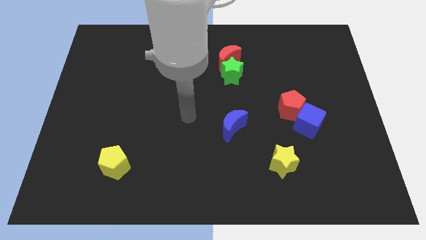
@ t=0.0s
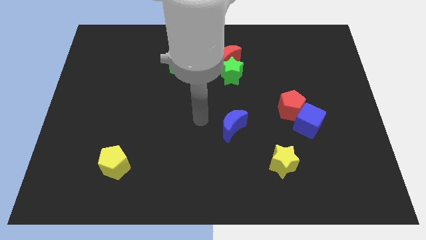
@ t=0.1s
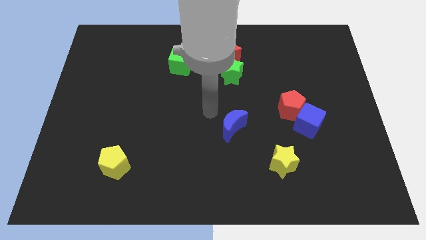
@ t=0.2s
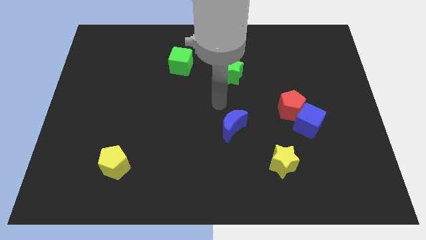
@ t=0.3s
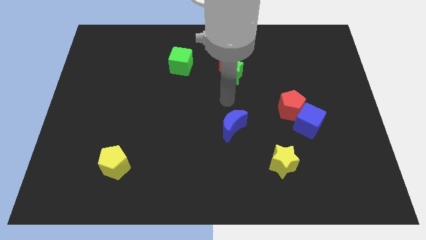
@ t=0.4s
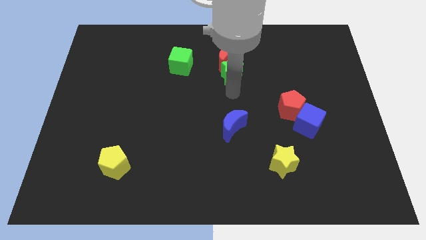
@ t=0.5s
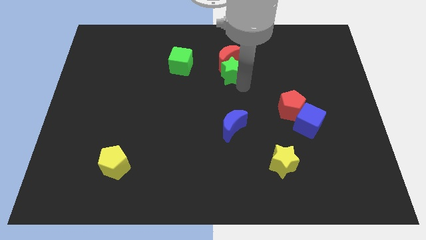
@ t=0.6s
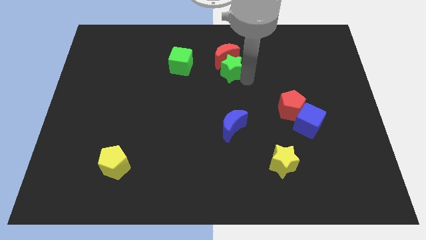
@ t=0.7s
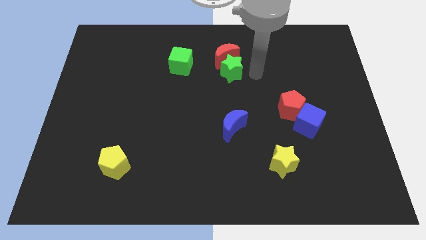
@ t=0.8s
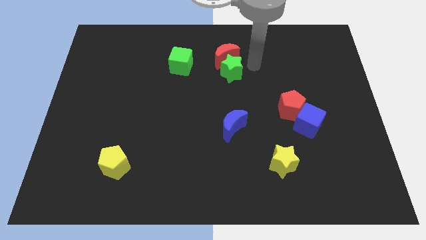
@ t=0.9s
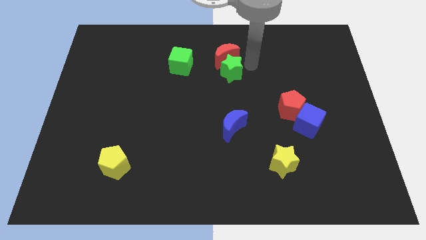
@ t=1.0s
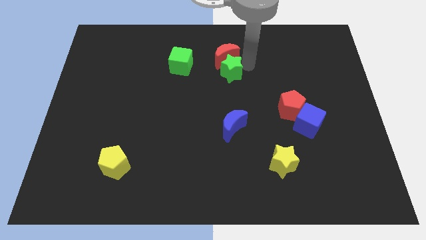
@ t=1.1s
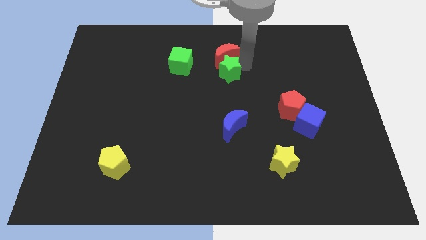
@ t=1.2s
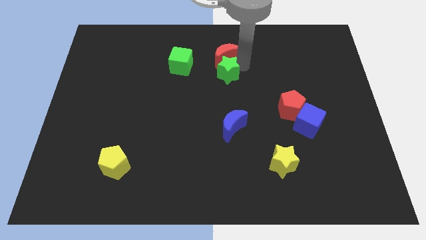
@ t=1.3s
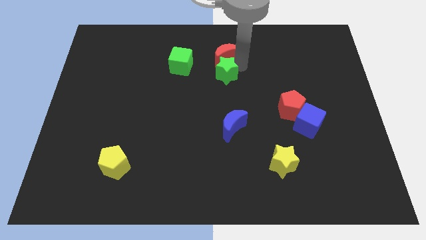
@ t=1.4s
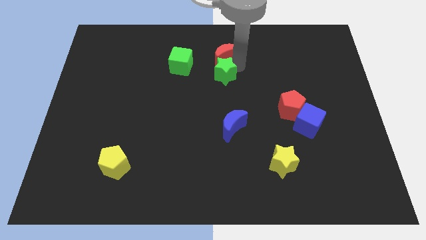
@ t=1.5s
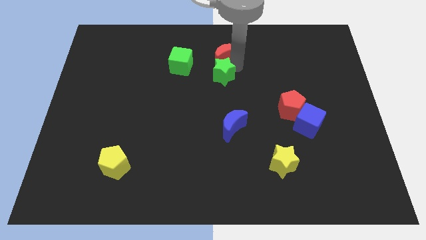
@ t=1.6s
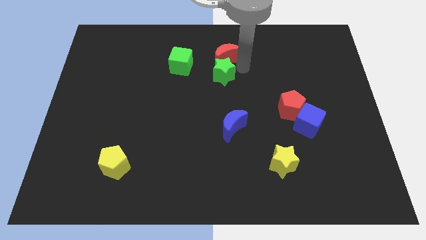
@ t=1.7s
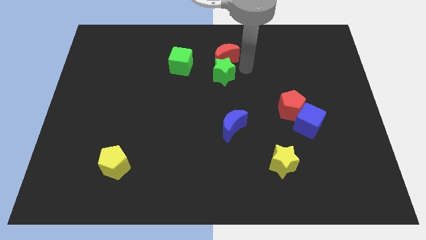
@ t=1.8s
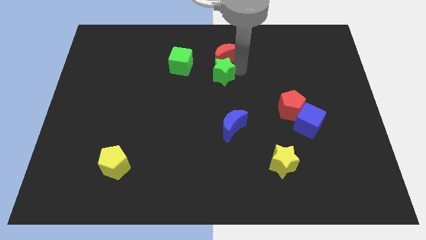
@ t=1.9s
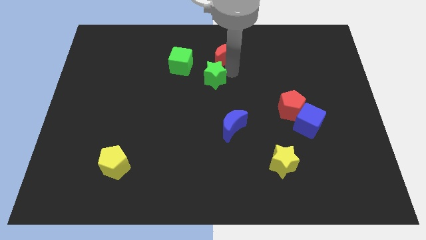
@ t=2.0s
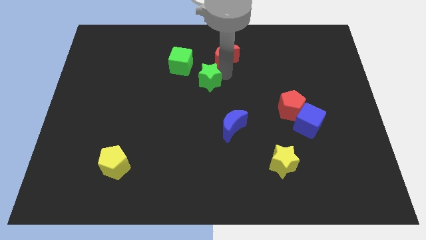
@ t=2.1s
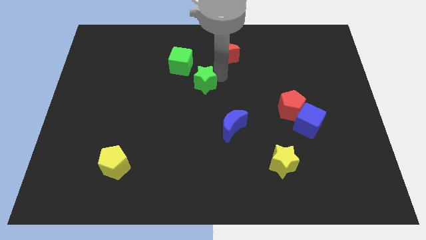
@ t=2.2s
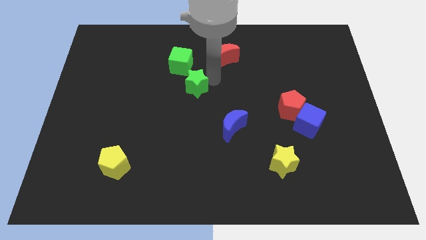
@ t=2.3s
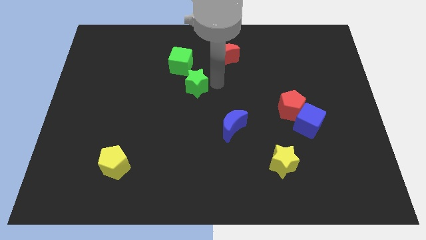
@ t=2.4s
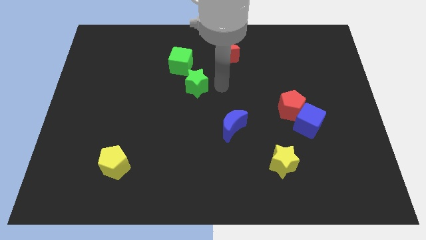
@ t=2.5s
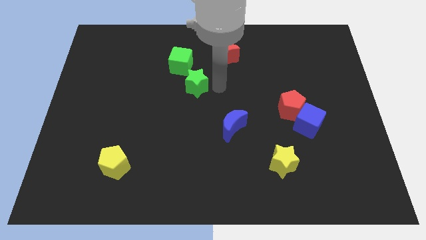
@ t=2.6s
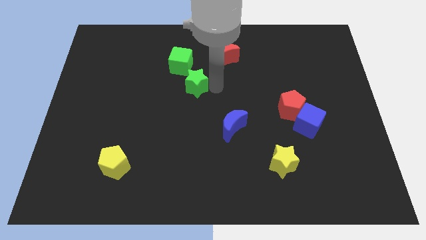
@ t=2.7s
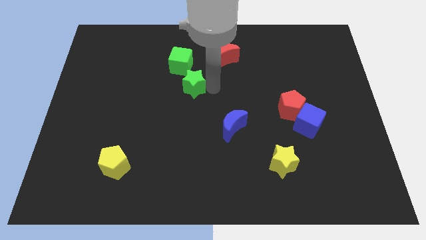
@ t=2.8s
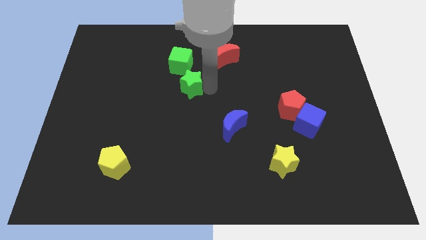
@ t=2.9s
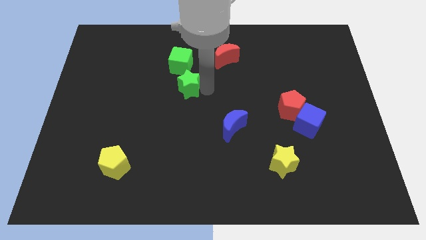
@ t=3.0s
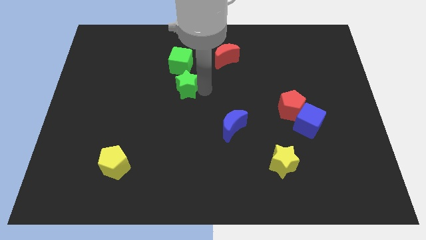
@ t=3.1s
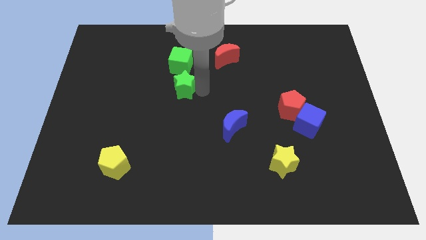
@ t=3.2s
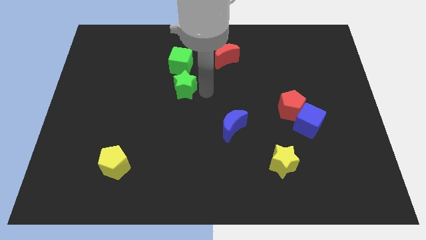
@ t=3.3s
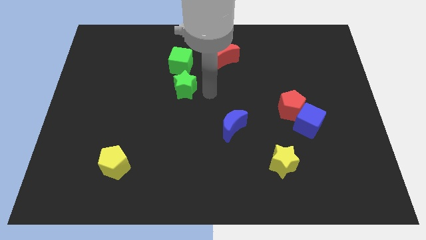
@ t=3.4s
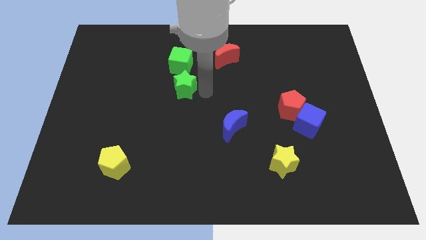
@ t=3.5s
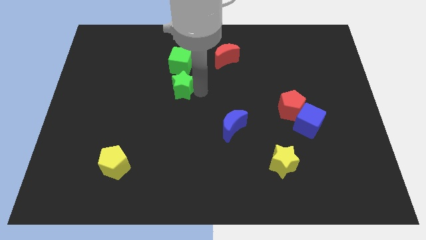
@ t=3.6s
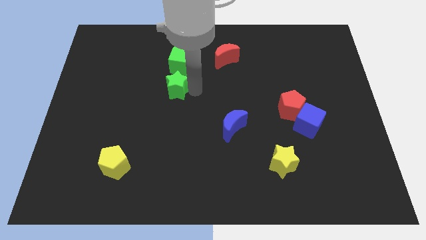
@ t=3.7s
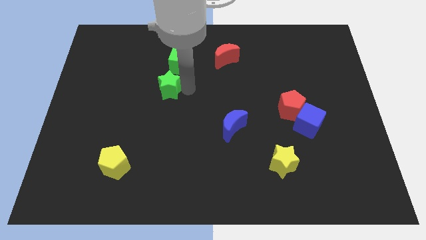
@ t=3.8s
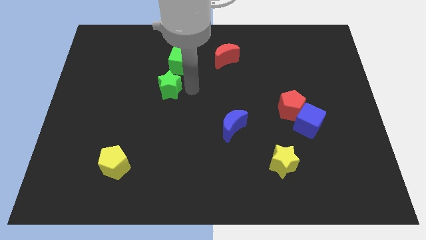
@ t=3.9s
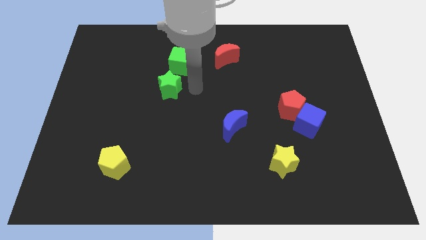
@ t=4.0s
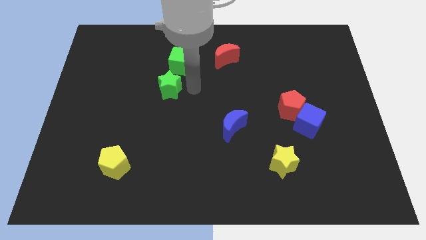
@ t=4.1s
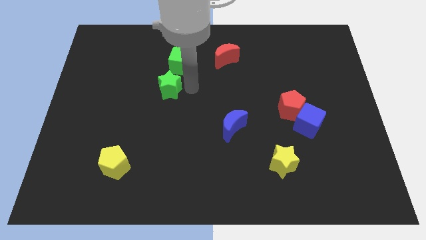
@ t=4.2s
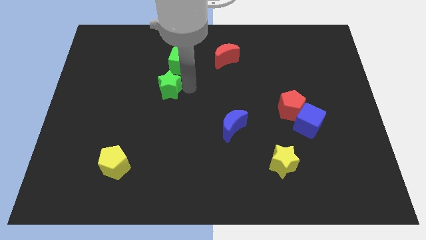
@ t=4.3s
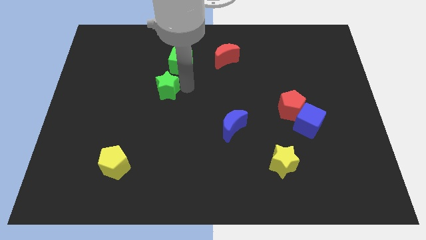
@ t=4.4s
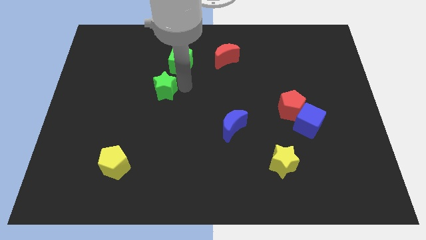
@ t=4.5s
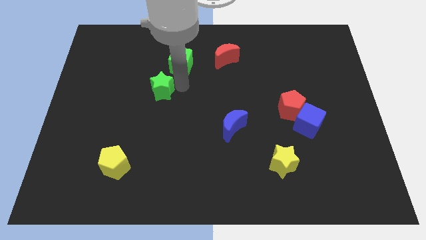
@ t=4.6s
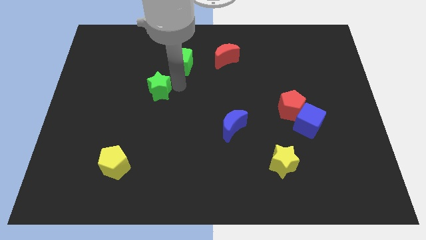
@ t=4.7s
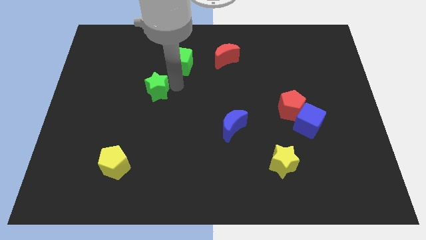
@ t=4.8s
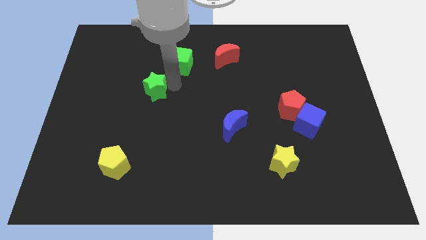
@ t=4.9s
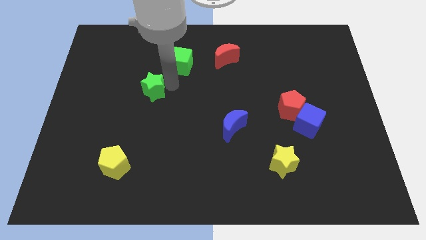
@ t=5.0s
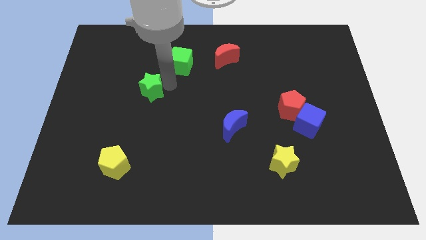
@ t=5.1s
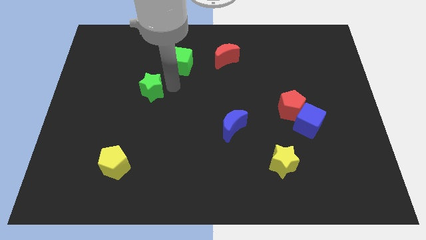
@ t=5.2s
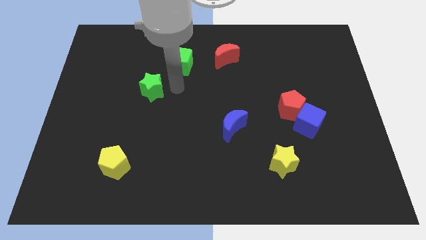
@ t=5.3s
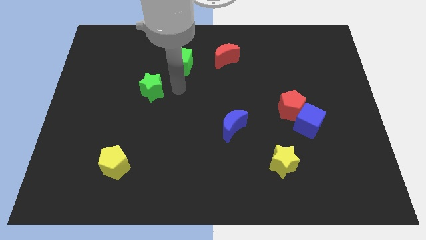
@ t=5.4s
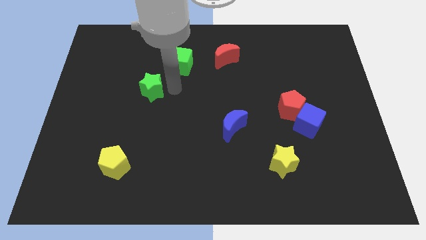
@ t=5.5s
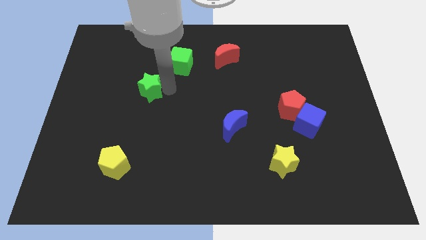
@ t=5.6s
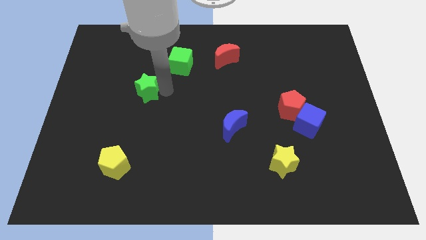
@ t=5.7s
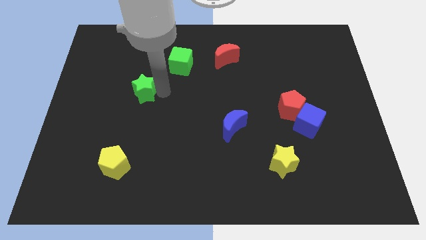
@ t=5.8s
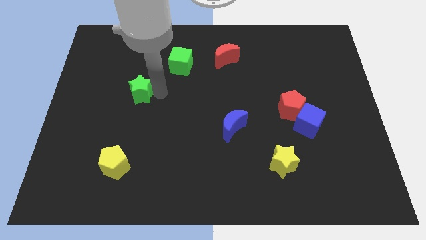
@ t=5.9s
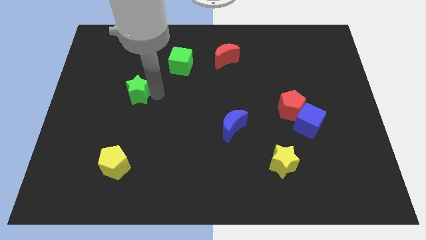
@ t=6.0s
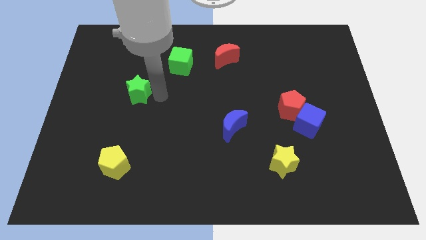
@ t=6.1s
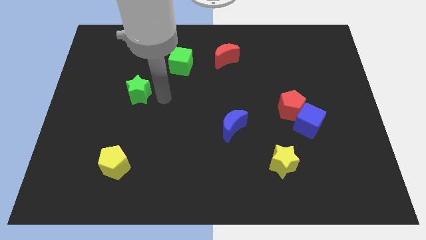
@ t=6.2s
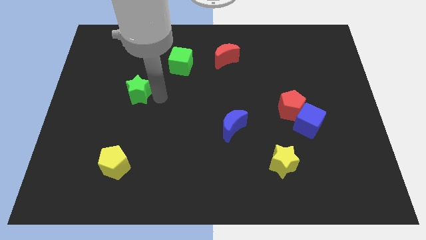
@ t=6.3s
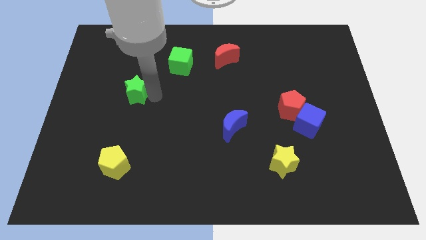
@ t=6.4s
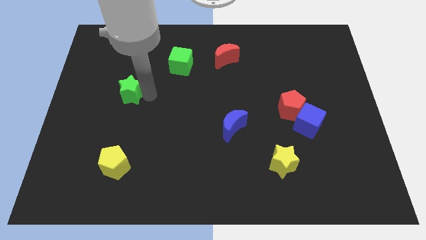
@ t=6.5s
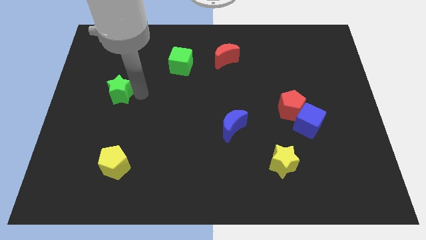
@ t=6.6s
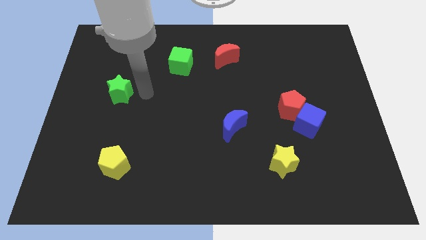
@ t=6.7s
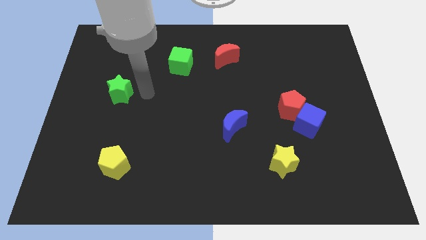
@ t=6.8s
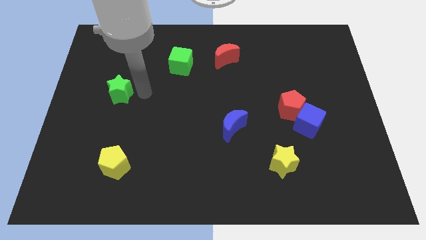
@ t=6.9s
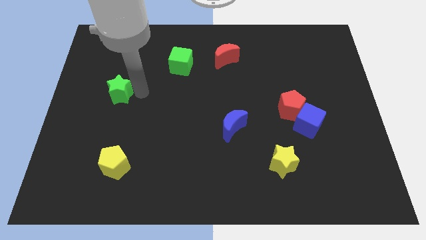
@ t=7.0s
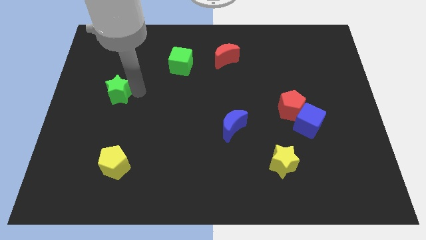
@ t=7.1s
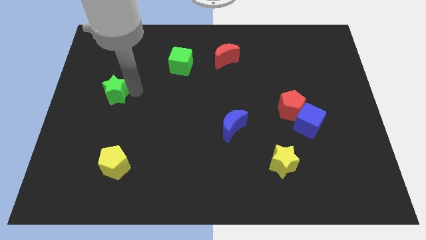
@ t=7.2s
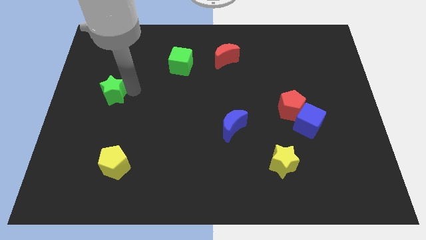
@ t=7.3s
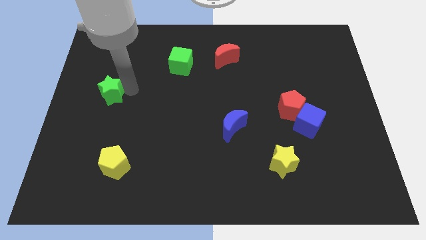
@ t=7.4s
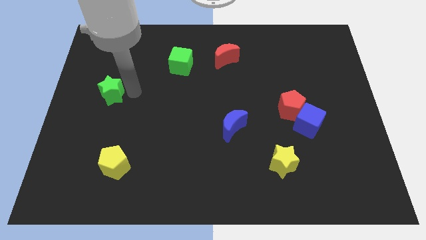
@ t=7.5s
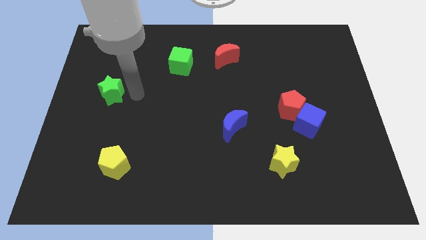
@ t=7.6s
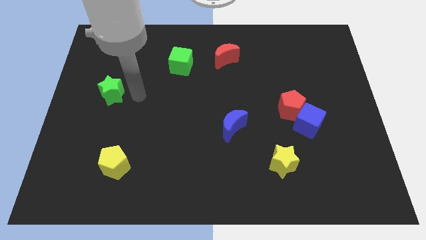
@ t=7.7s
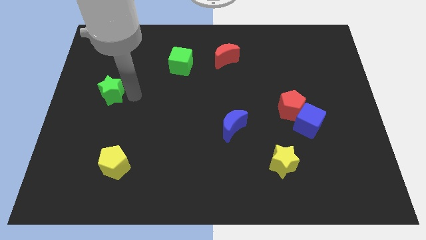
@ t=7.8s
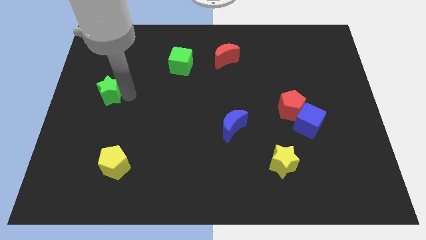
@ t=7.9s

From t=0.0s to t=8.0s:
put the green star to the left side of the board
